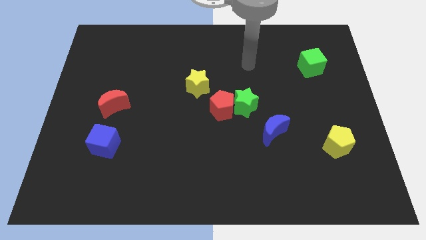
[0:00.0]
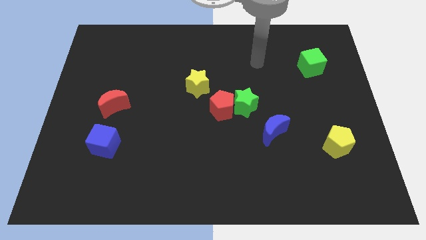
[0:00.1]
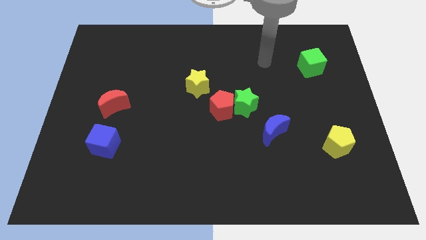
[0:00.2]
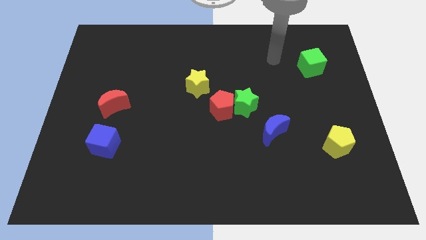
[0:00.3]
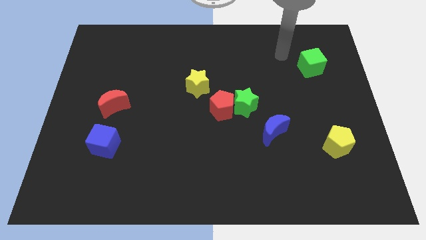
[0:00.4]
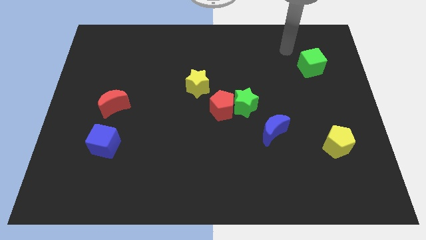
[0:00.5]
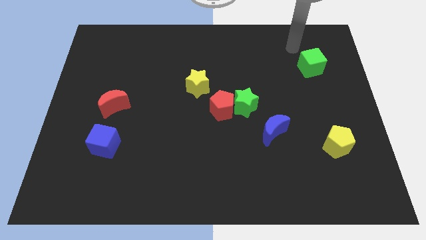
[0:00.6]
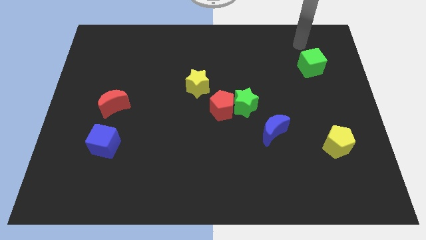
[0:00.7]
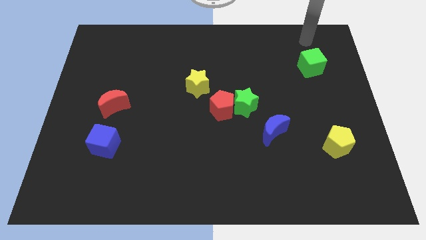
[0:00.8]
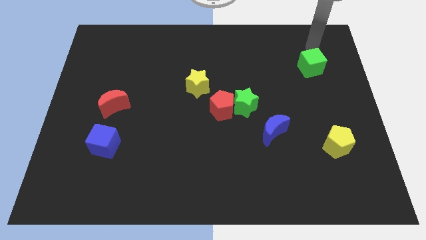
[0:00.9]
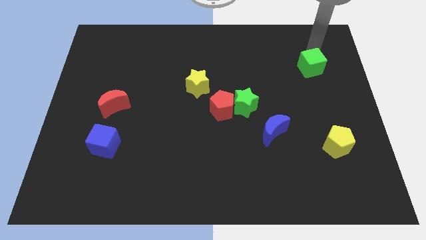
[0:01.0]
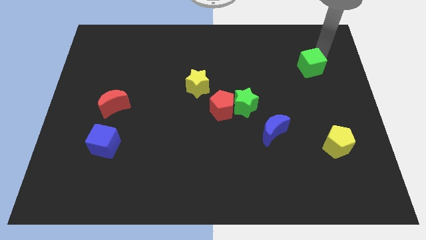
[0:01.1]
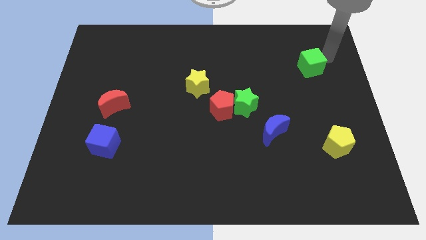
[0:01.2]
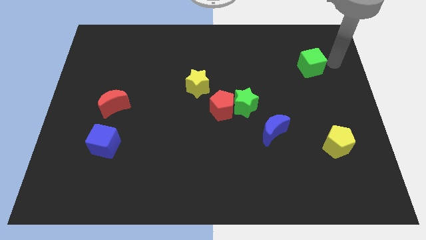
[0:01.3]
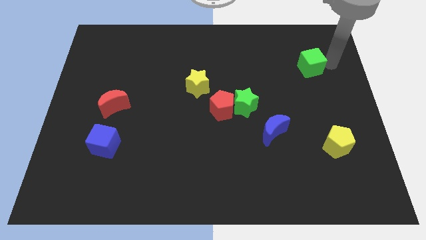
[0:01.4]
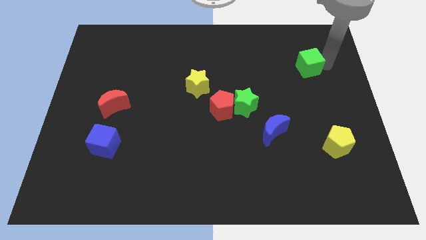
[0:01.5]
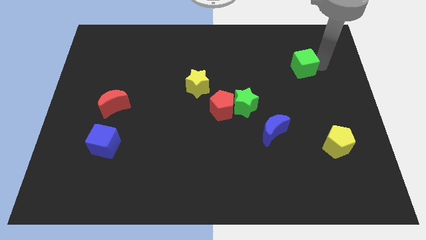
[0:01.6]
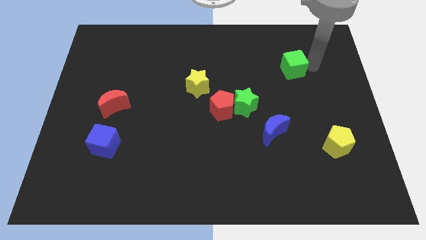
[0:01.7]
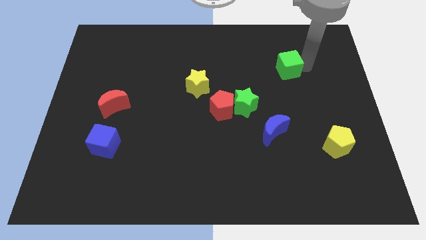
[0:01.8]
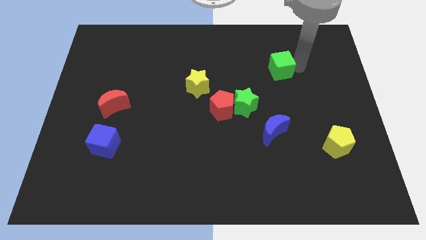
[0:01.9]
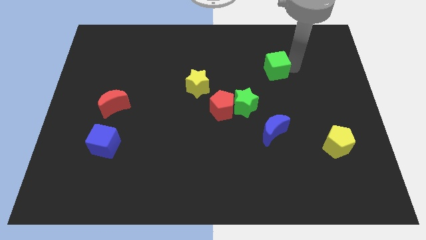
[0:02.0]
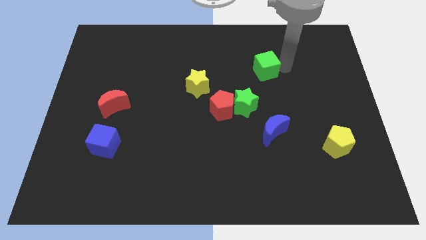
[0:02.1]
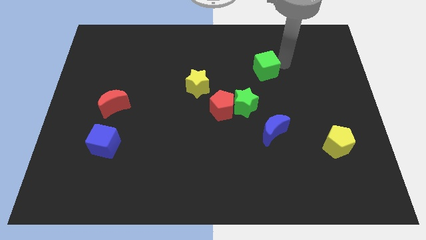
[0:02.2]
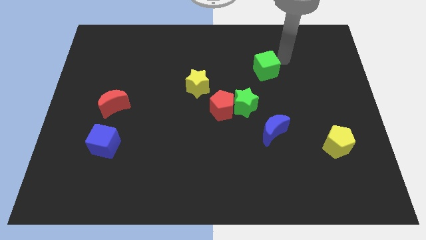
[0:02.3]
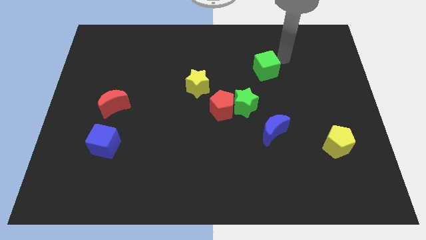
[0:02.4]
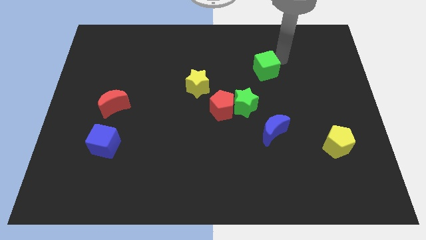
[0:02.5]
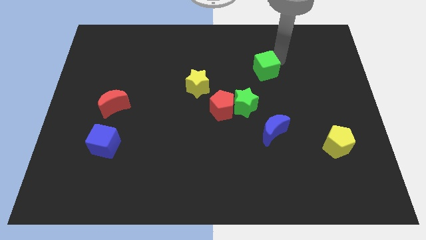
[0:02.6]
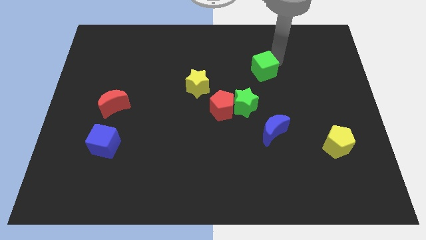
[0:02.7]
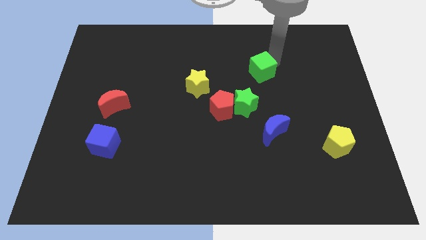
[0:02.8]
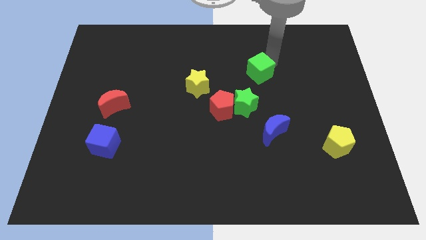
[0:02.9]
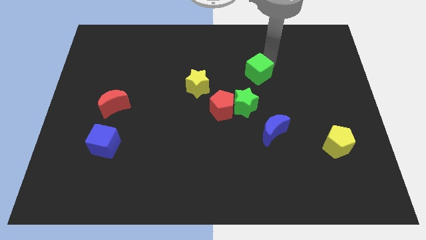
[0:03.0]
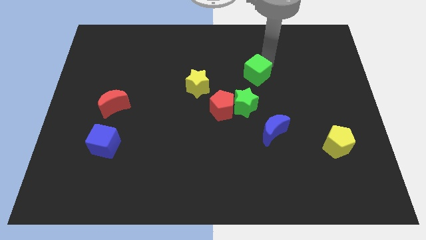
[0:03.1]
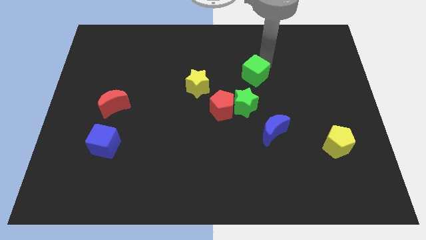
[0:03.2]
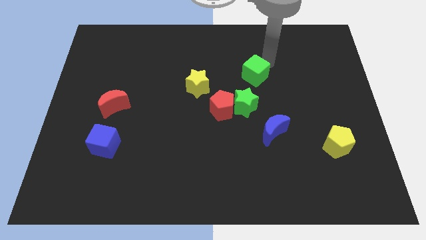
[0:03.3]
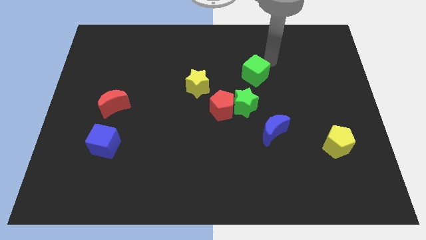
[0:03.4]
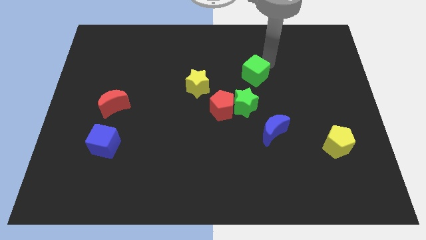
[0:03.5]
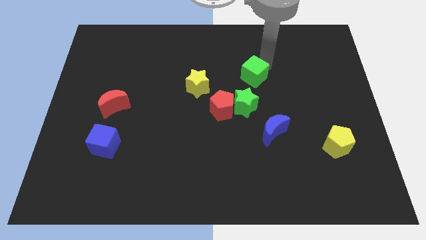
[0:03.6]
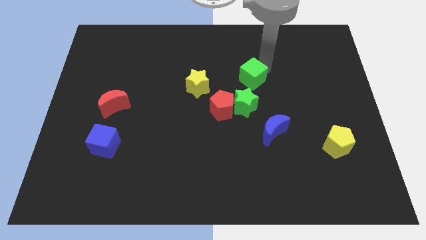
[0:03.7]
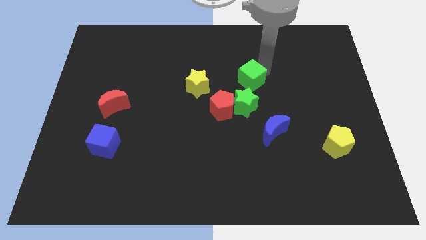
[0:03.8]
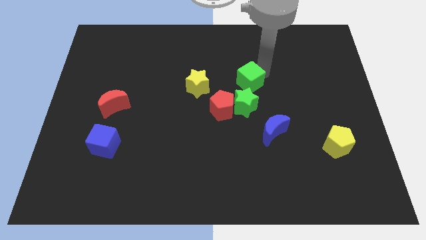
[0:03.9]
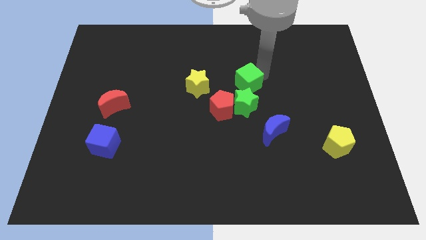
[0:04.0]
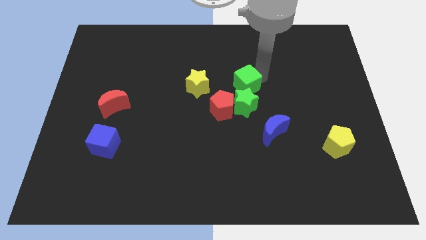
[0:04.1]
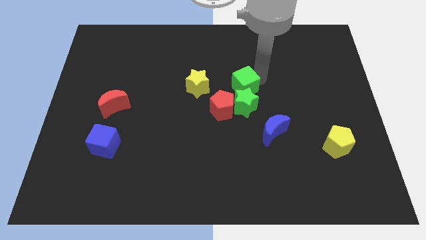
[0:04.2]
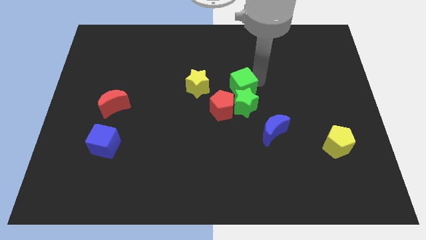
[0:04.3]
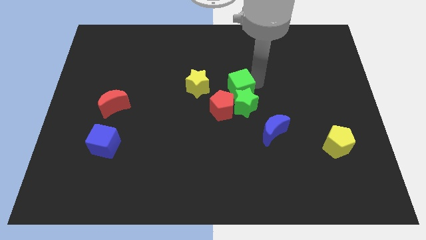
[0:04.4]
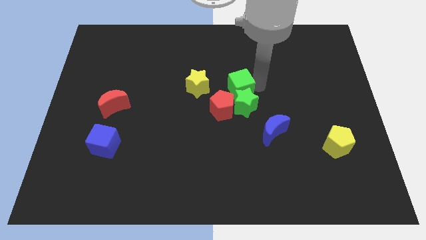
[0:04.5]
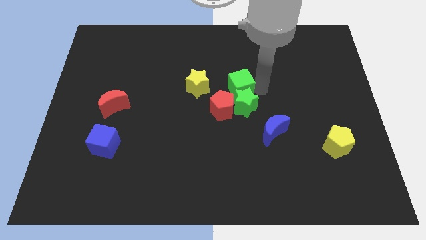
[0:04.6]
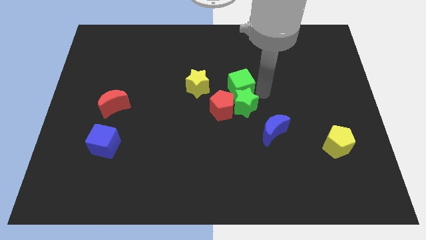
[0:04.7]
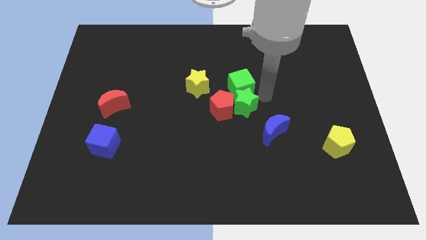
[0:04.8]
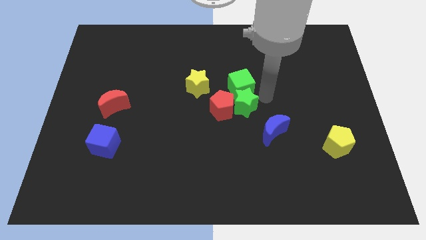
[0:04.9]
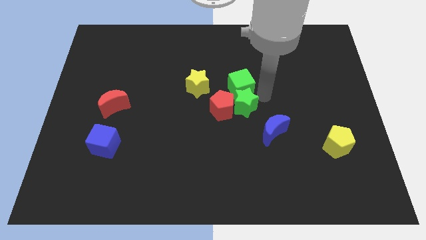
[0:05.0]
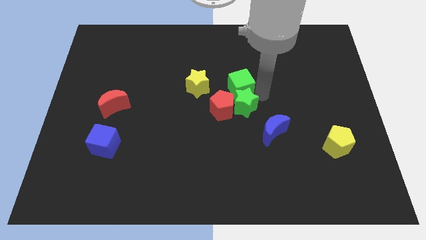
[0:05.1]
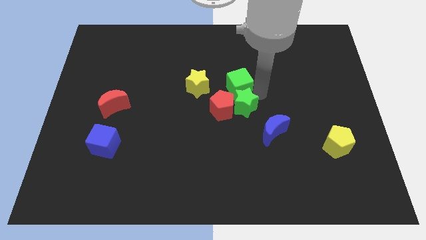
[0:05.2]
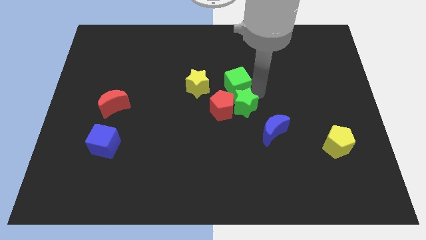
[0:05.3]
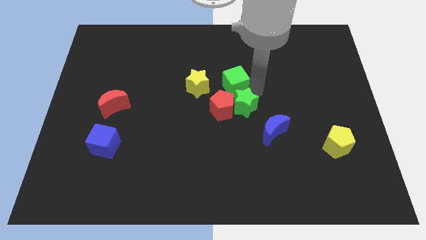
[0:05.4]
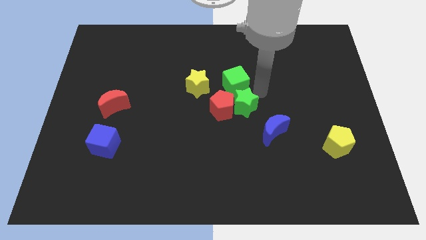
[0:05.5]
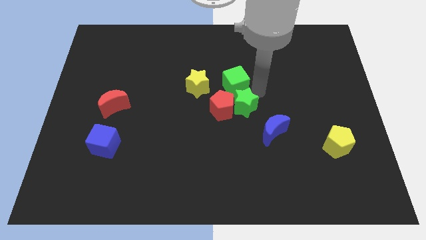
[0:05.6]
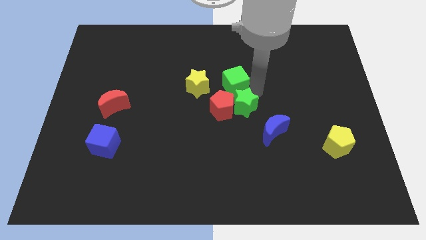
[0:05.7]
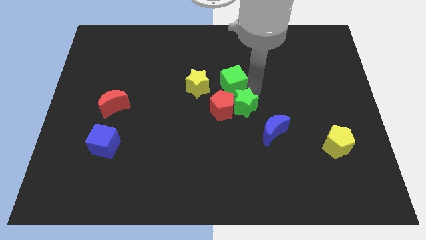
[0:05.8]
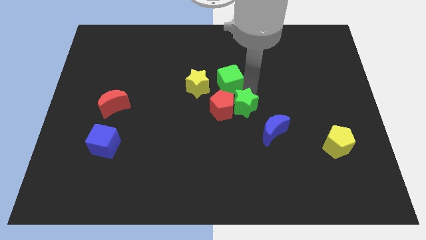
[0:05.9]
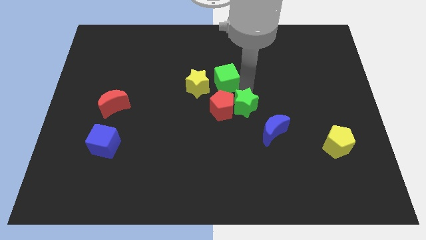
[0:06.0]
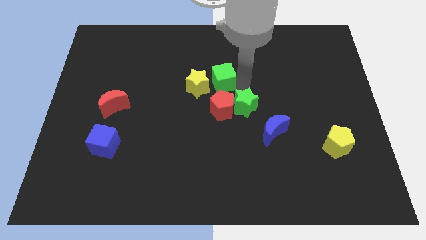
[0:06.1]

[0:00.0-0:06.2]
slide the green cube next to the yellow star

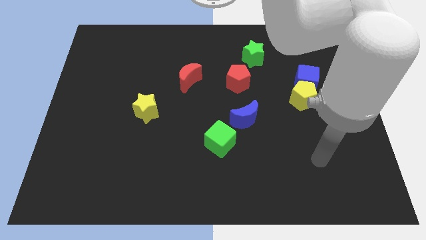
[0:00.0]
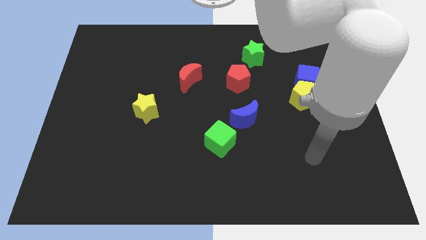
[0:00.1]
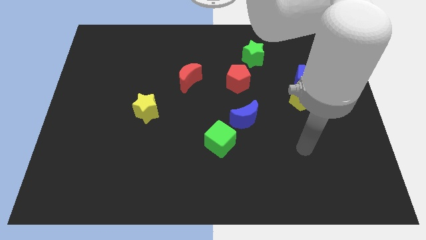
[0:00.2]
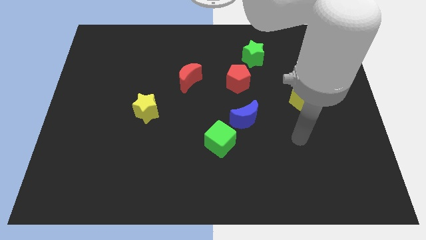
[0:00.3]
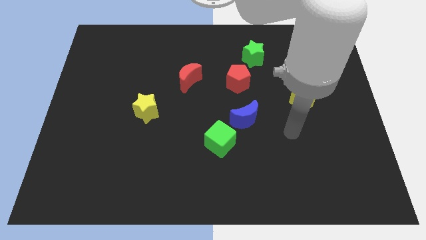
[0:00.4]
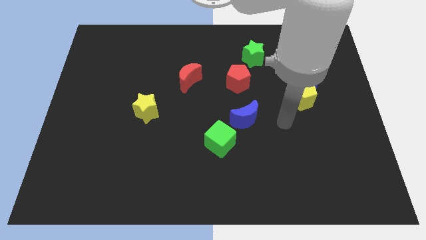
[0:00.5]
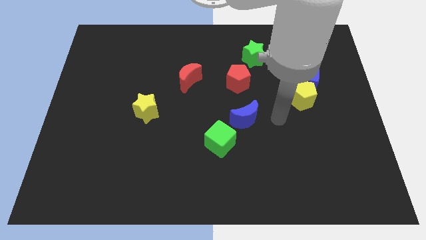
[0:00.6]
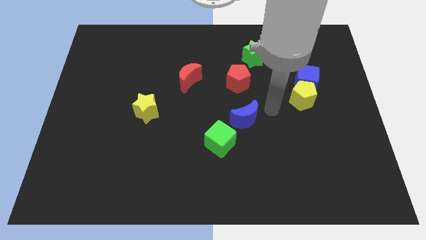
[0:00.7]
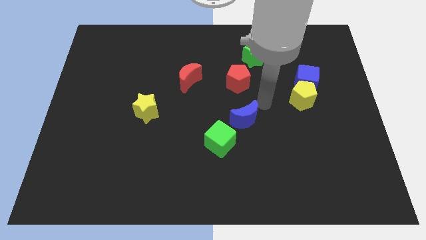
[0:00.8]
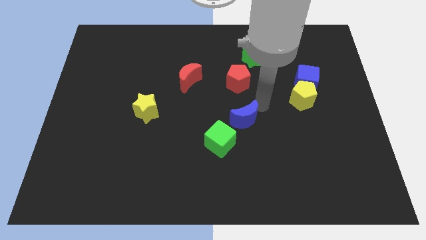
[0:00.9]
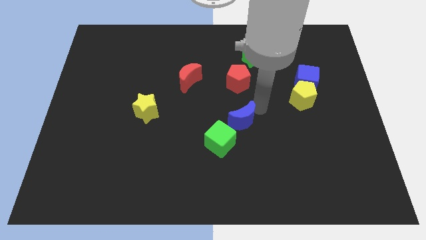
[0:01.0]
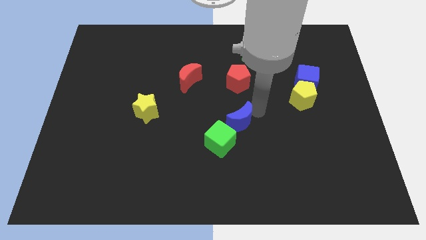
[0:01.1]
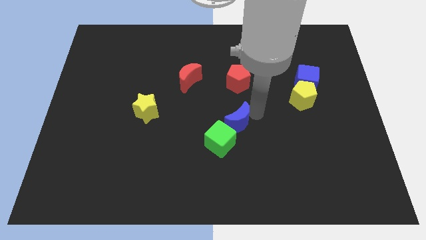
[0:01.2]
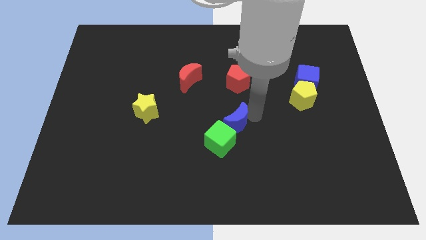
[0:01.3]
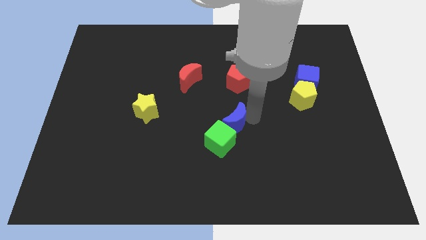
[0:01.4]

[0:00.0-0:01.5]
move the blue moon close to the green cube
